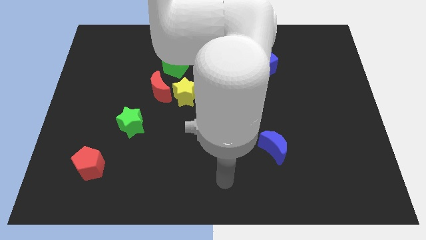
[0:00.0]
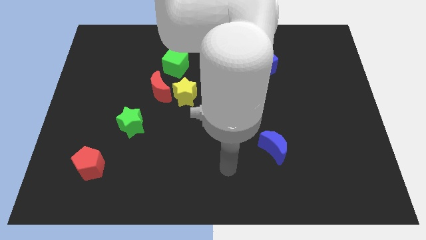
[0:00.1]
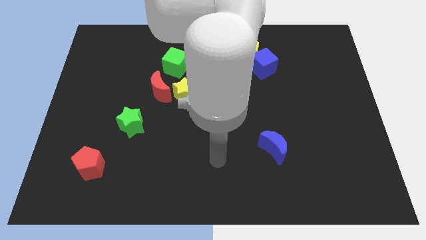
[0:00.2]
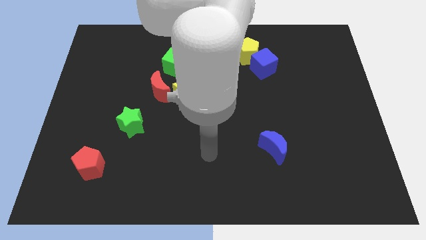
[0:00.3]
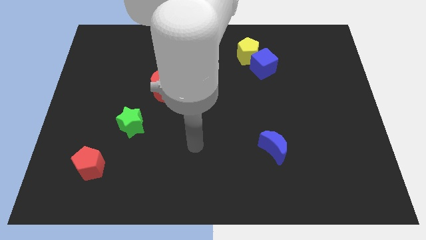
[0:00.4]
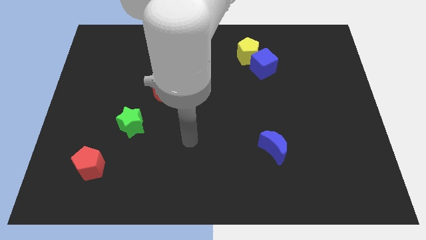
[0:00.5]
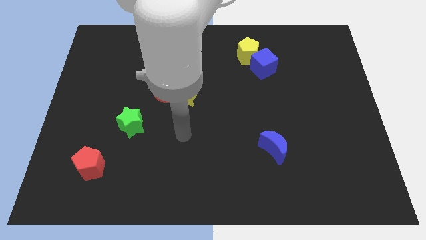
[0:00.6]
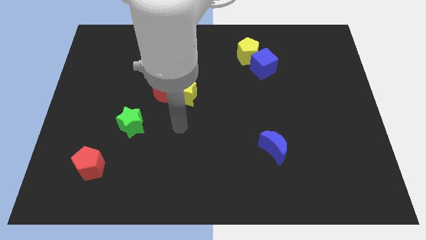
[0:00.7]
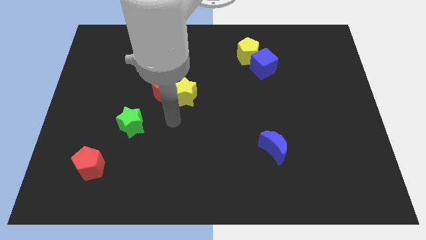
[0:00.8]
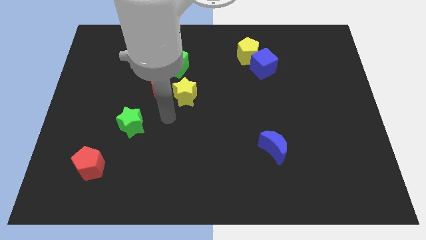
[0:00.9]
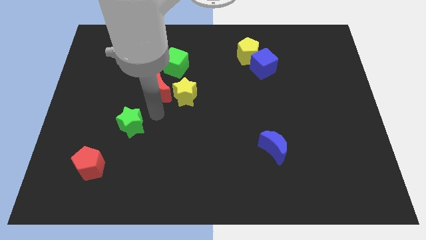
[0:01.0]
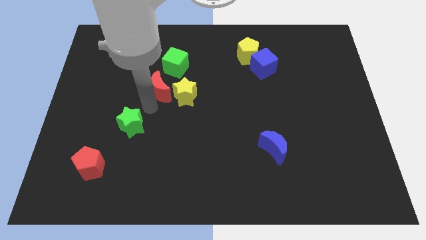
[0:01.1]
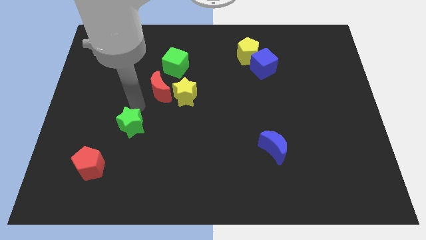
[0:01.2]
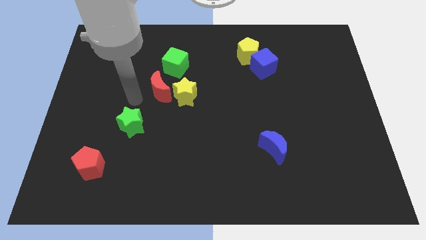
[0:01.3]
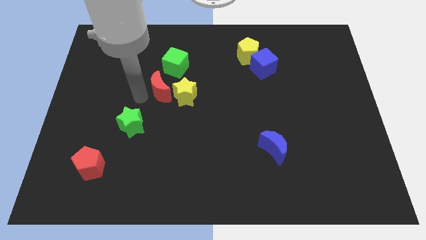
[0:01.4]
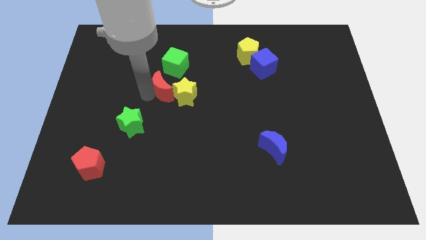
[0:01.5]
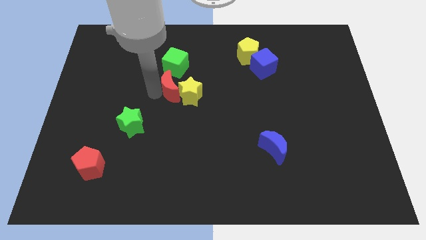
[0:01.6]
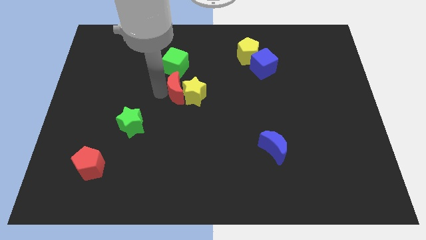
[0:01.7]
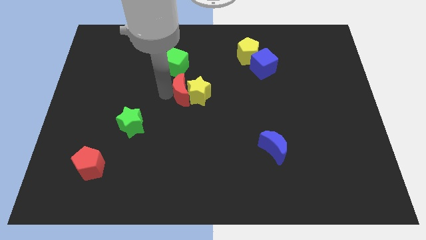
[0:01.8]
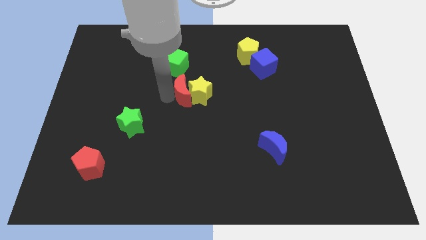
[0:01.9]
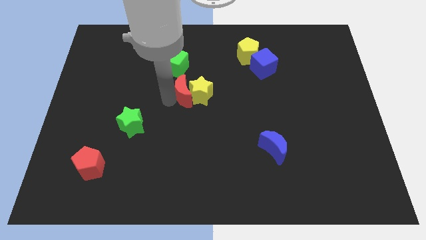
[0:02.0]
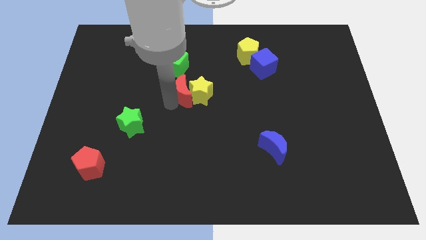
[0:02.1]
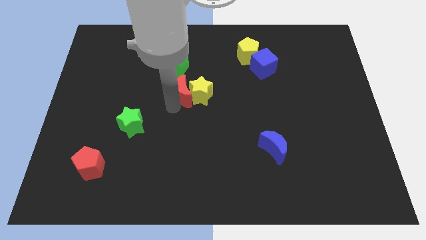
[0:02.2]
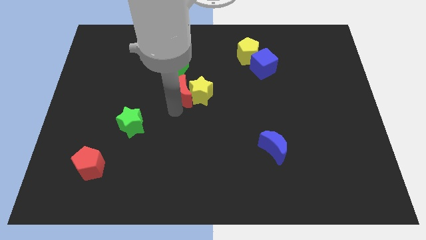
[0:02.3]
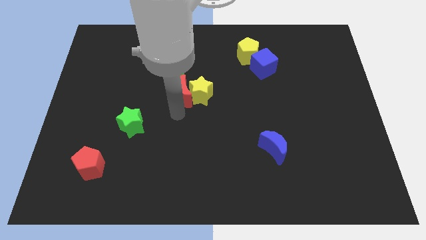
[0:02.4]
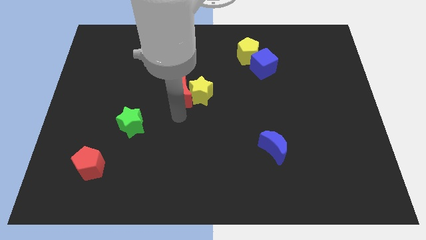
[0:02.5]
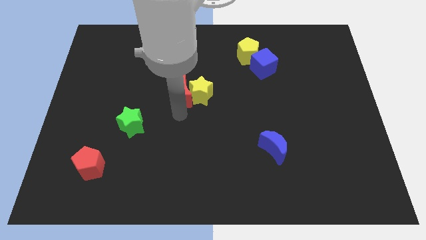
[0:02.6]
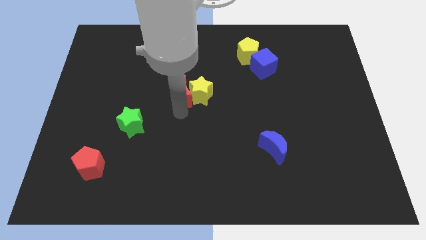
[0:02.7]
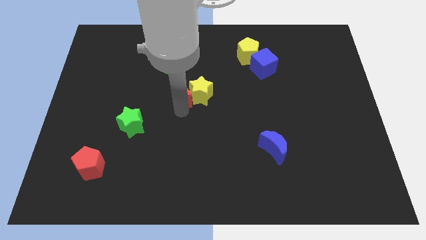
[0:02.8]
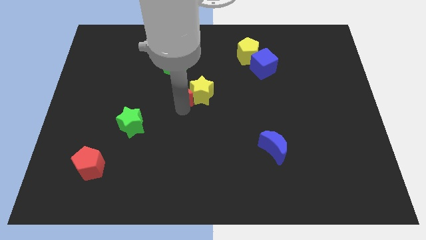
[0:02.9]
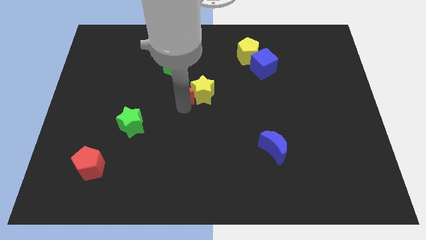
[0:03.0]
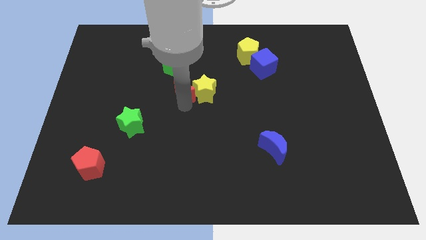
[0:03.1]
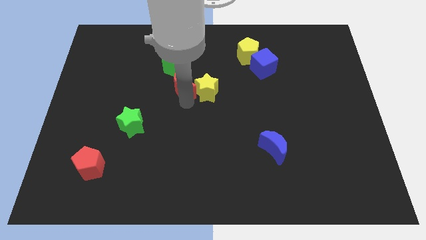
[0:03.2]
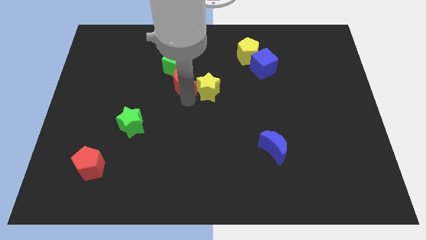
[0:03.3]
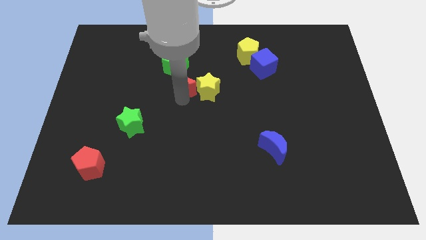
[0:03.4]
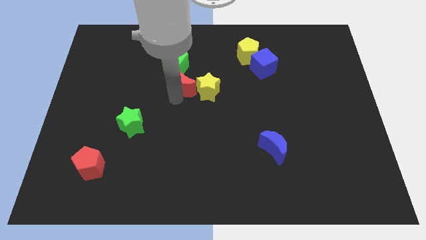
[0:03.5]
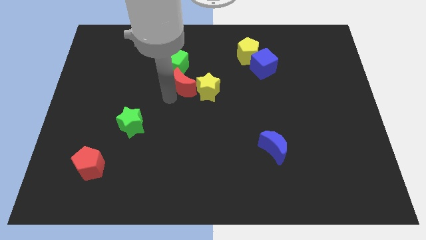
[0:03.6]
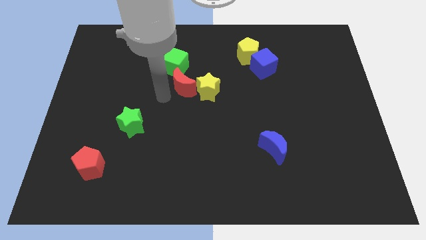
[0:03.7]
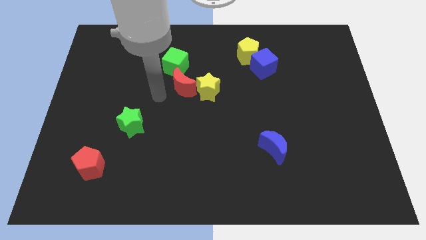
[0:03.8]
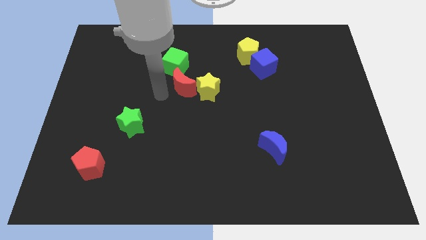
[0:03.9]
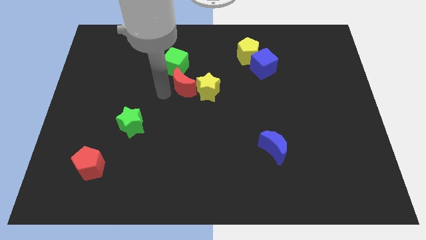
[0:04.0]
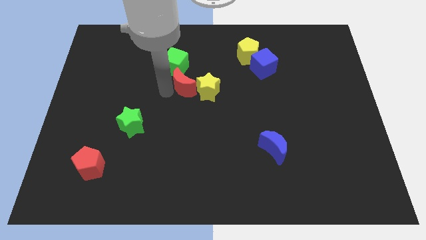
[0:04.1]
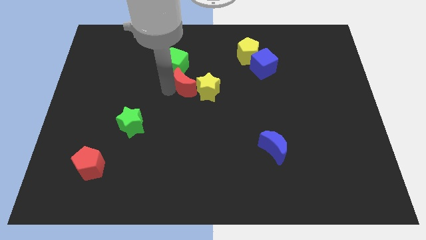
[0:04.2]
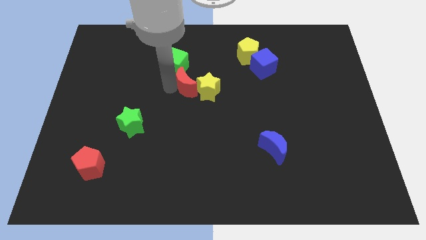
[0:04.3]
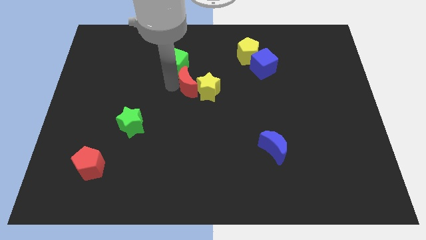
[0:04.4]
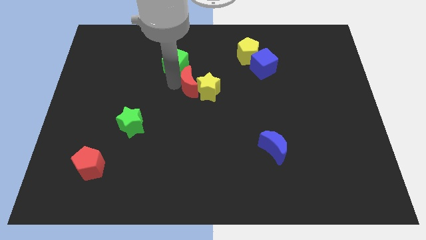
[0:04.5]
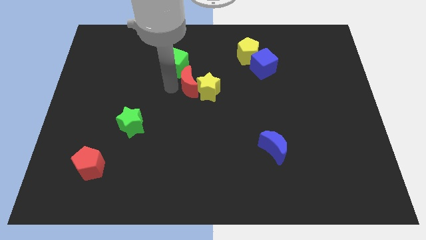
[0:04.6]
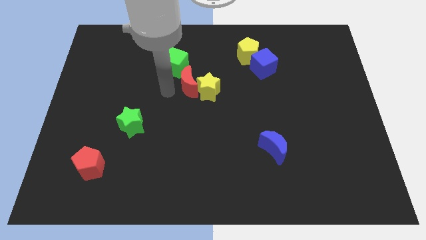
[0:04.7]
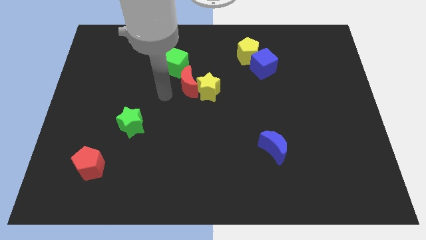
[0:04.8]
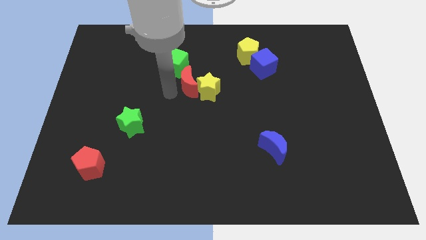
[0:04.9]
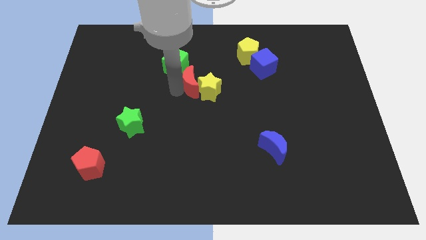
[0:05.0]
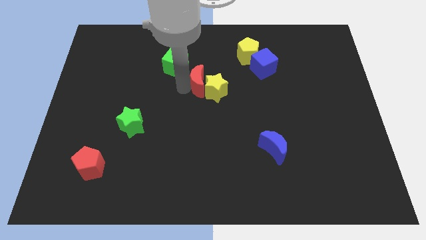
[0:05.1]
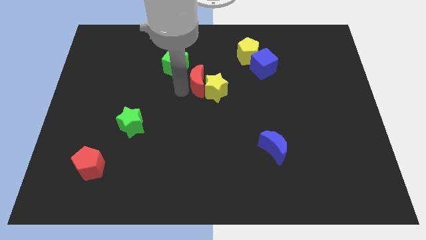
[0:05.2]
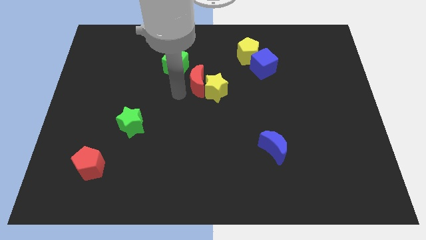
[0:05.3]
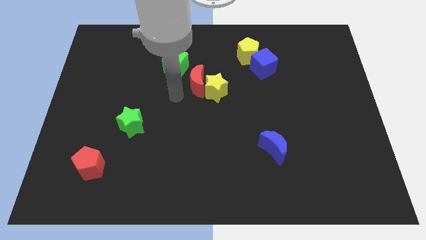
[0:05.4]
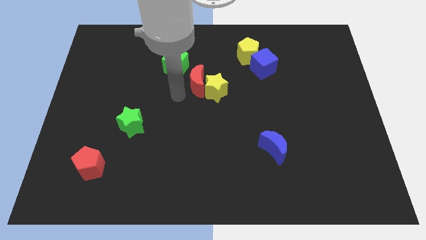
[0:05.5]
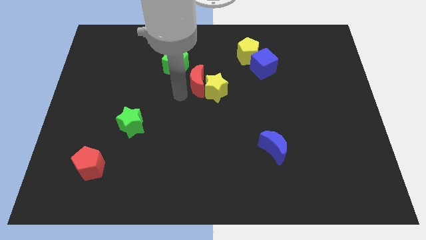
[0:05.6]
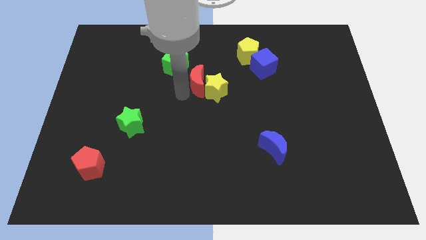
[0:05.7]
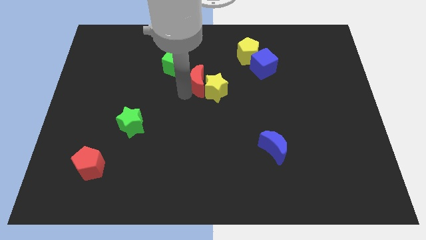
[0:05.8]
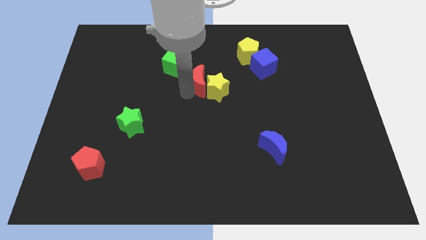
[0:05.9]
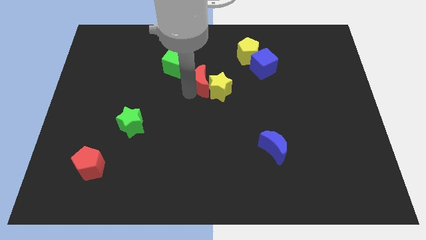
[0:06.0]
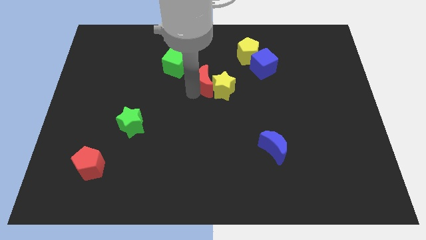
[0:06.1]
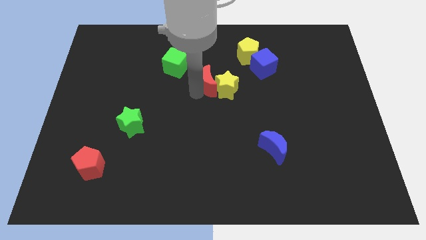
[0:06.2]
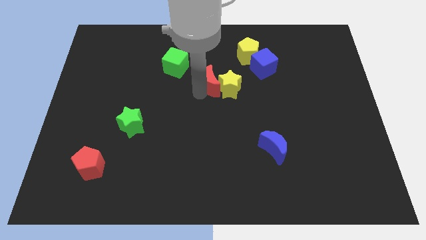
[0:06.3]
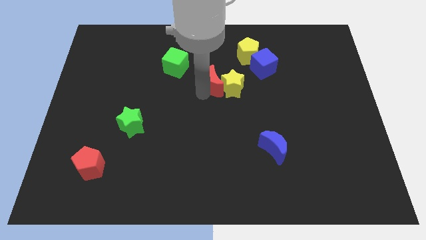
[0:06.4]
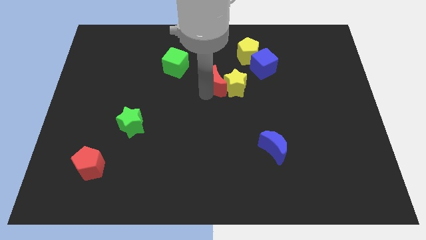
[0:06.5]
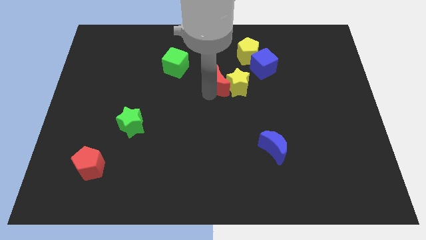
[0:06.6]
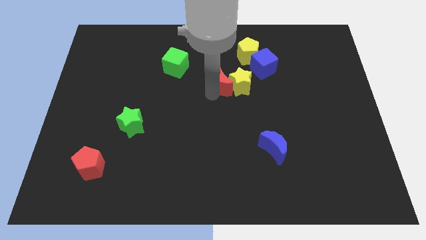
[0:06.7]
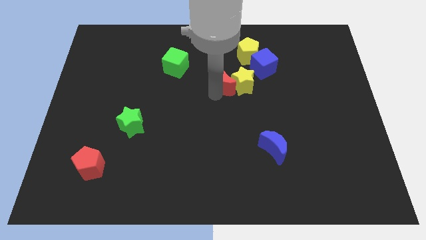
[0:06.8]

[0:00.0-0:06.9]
push the red moon to the bottom left side of the yellow pentagon
